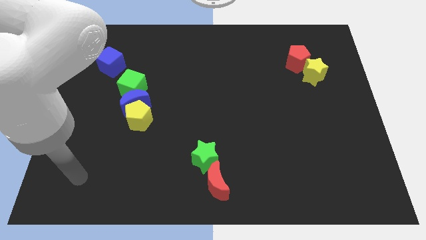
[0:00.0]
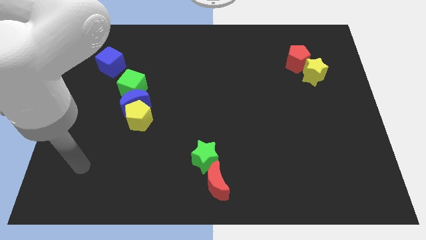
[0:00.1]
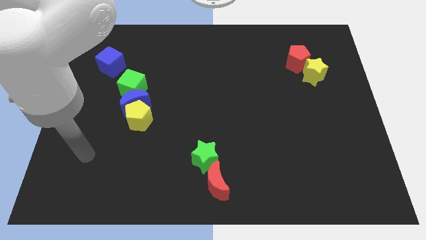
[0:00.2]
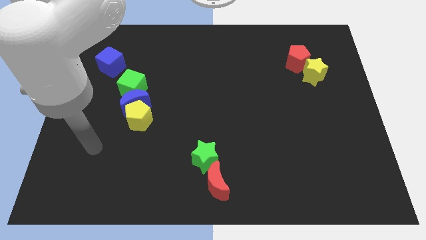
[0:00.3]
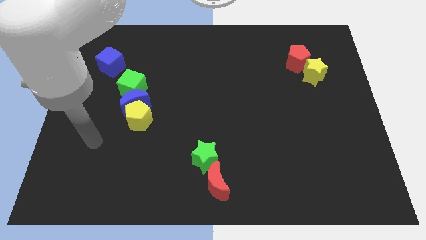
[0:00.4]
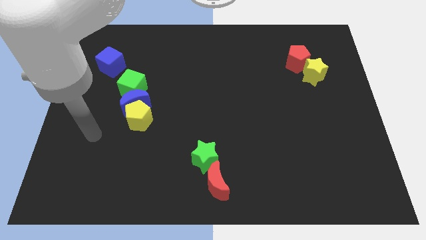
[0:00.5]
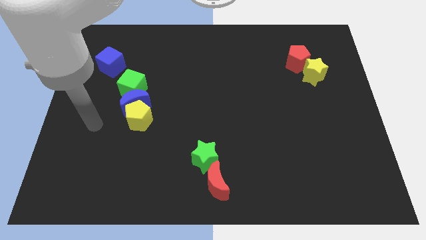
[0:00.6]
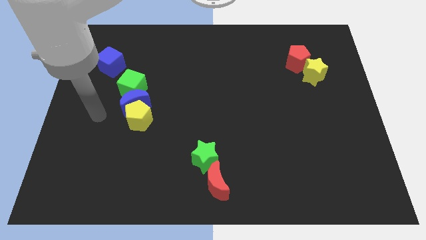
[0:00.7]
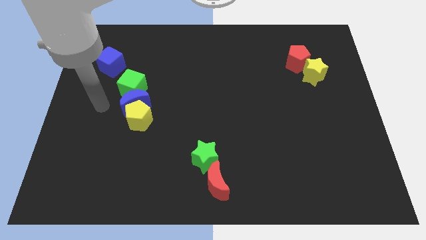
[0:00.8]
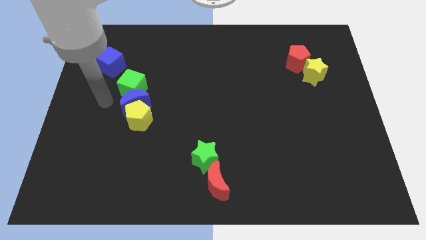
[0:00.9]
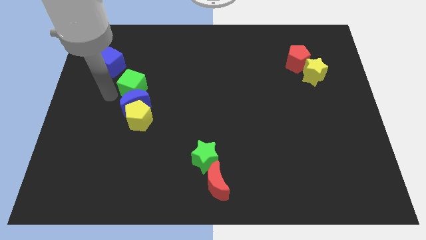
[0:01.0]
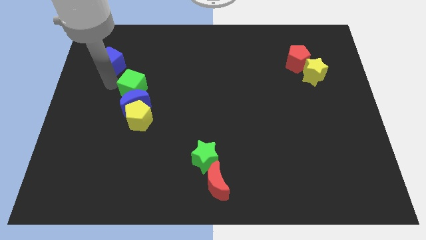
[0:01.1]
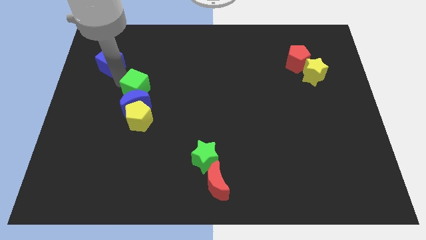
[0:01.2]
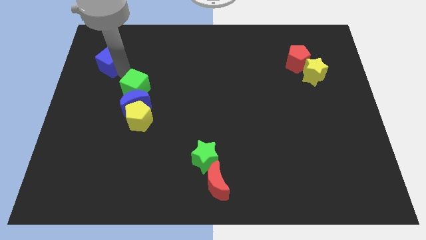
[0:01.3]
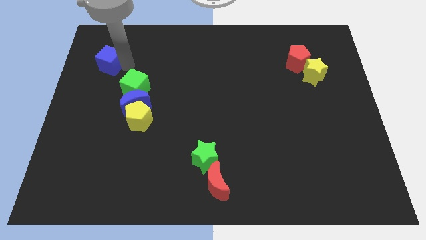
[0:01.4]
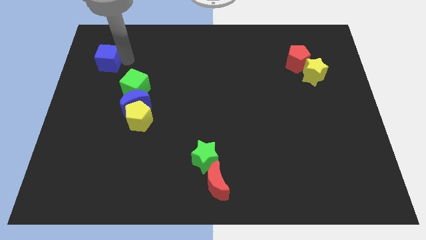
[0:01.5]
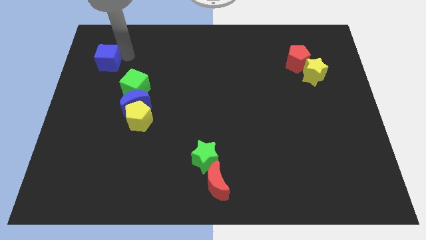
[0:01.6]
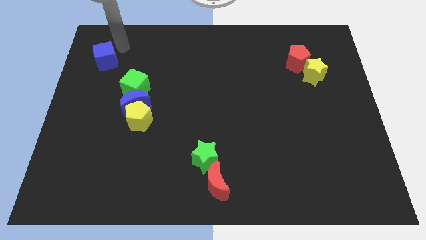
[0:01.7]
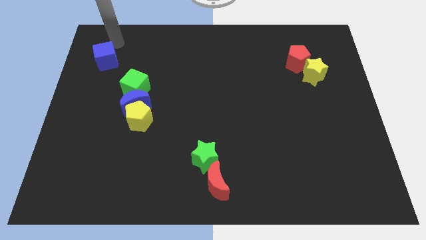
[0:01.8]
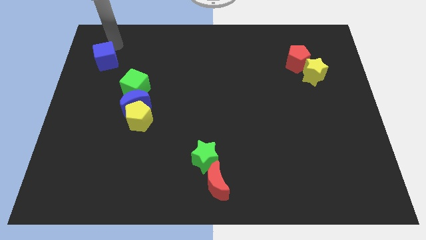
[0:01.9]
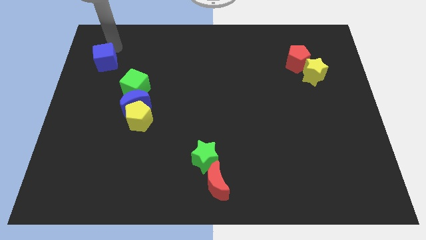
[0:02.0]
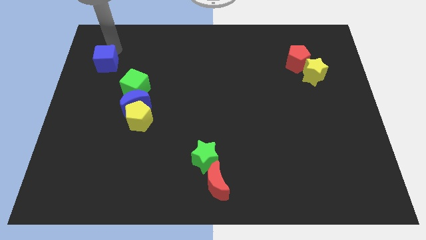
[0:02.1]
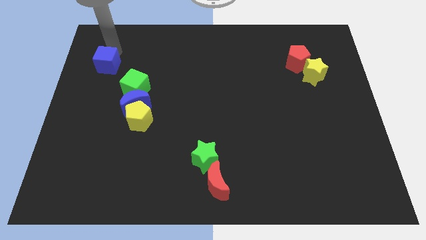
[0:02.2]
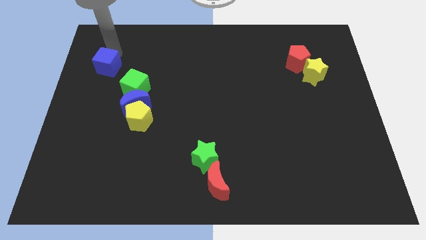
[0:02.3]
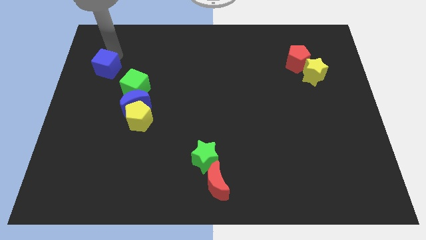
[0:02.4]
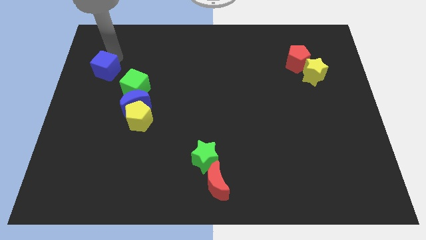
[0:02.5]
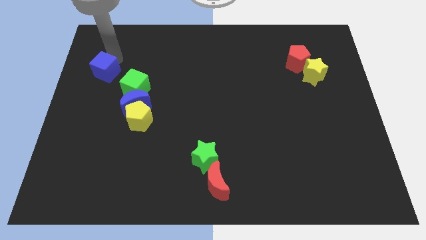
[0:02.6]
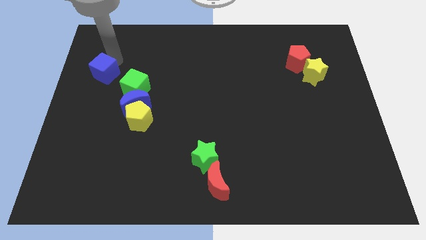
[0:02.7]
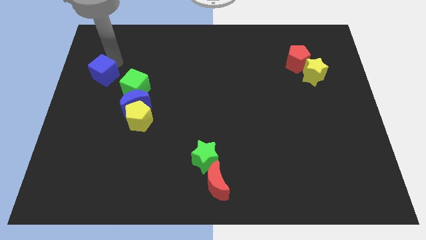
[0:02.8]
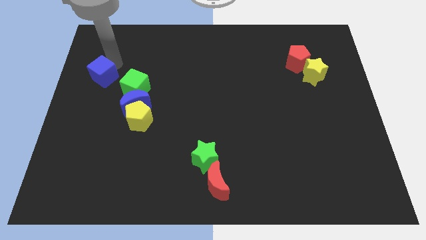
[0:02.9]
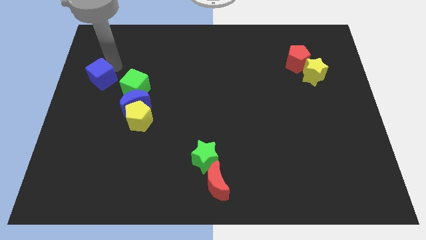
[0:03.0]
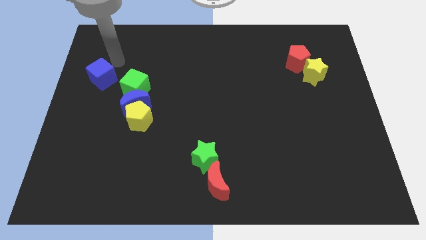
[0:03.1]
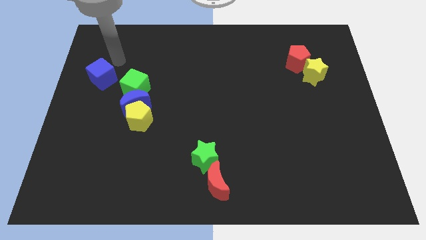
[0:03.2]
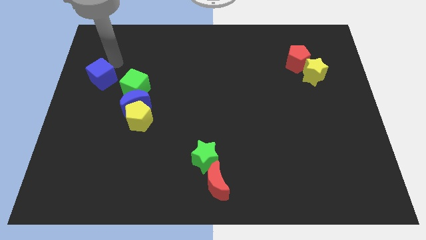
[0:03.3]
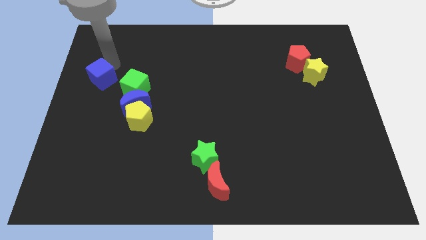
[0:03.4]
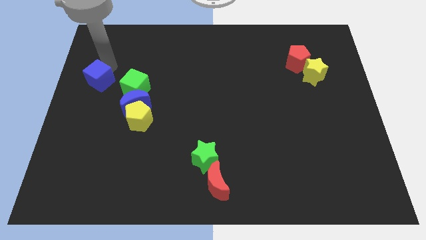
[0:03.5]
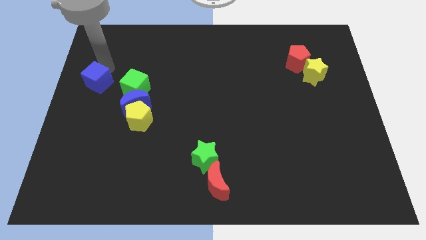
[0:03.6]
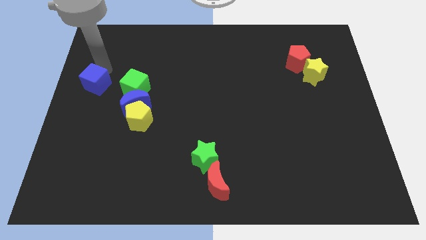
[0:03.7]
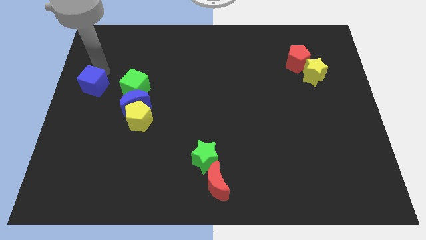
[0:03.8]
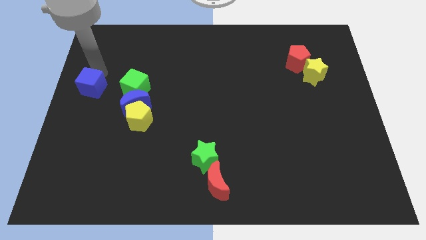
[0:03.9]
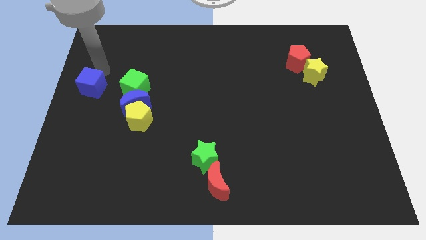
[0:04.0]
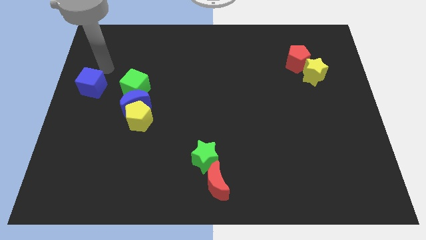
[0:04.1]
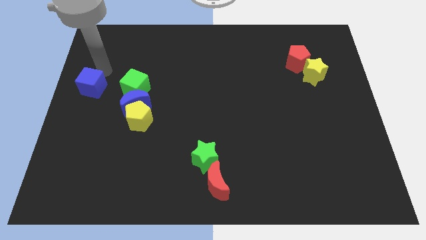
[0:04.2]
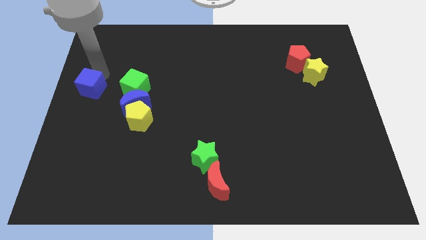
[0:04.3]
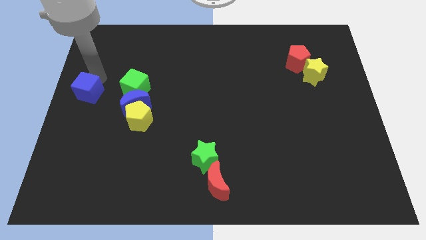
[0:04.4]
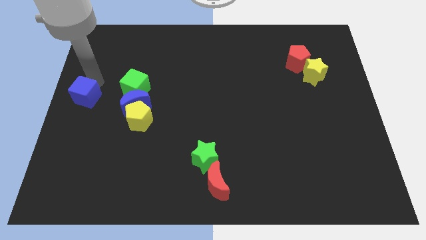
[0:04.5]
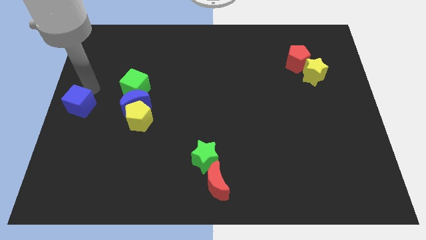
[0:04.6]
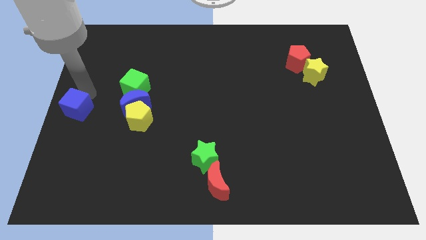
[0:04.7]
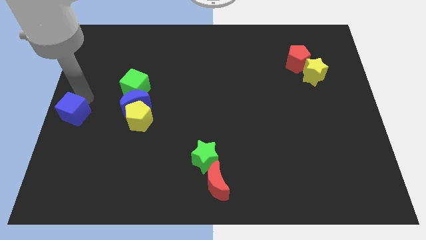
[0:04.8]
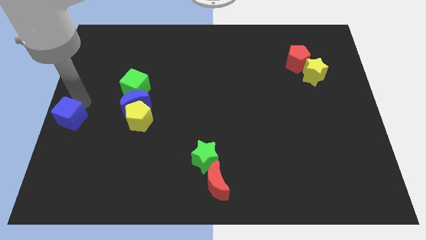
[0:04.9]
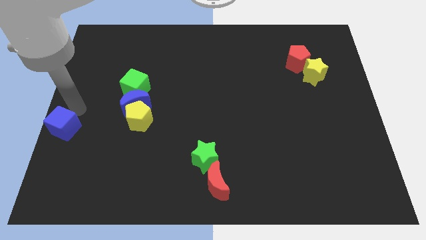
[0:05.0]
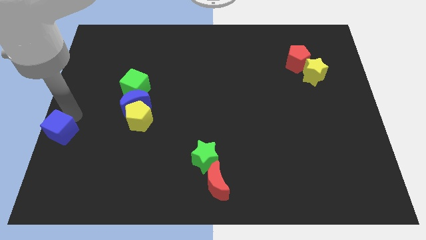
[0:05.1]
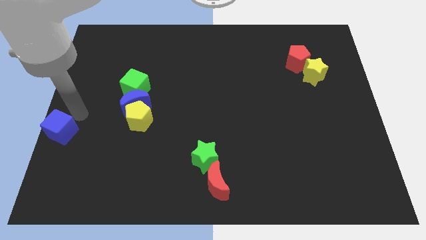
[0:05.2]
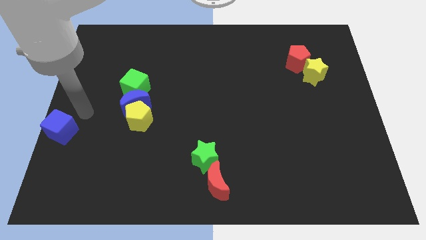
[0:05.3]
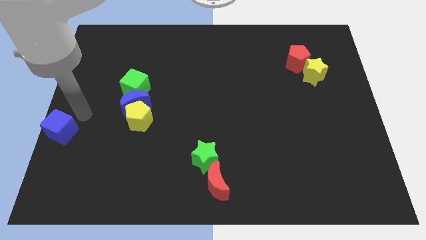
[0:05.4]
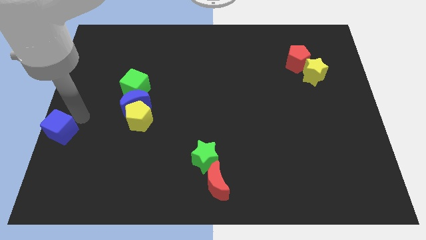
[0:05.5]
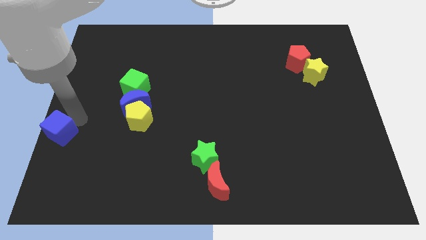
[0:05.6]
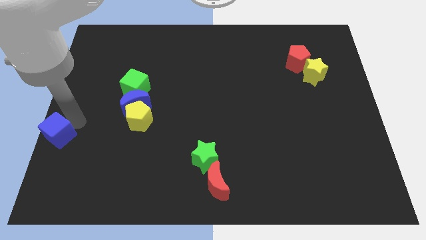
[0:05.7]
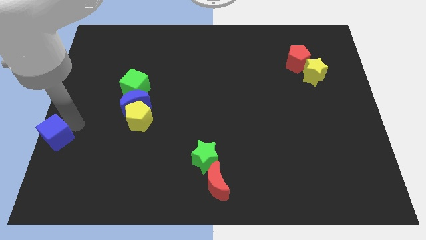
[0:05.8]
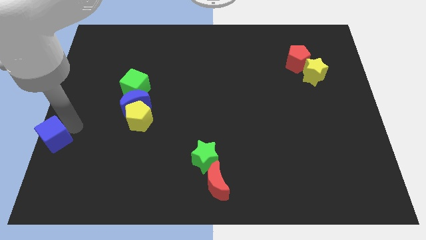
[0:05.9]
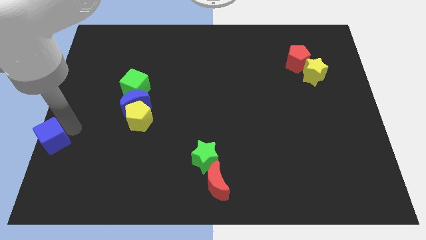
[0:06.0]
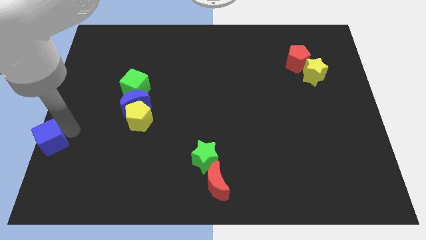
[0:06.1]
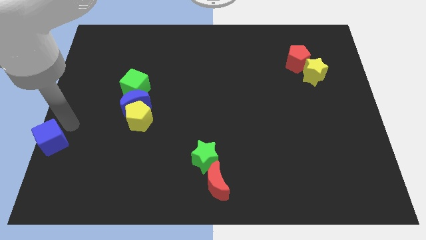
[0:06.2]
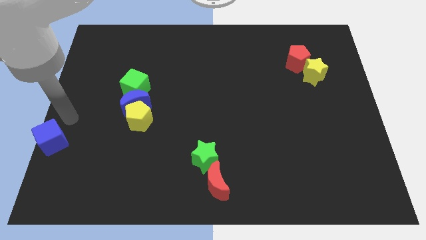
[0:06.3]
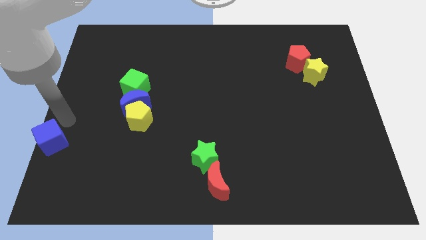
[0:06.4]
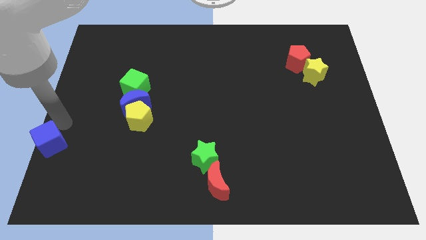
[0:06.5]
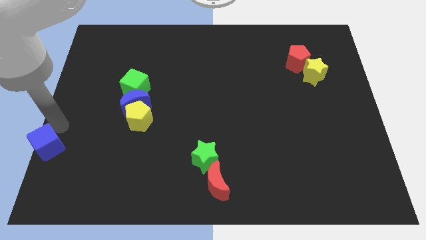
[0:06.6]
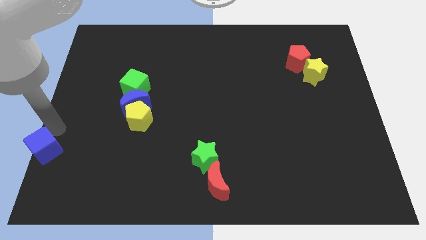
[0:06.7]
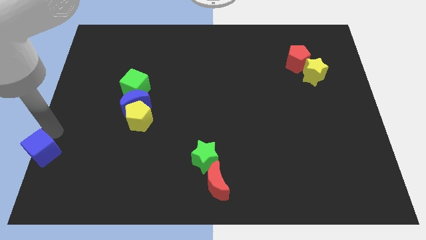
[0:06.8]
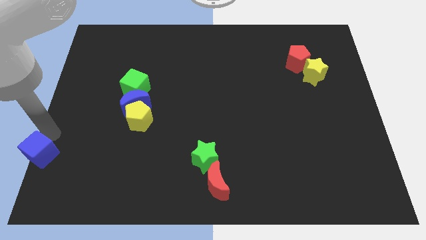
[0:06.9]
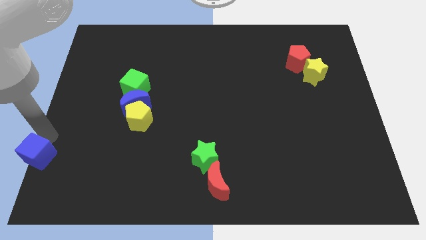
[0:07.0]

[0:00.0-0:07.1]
put the blue cube to the bottom left corner
